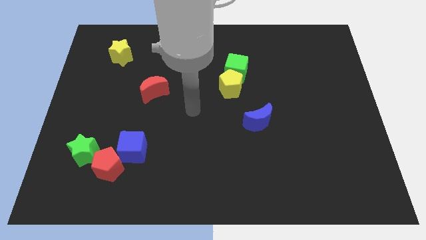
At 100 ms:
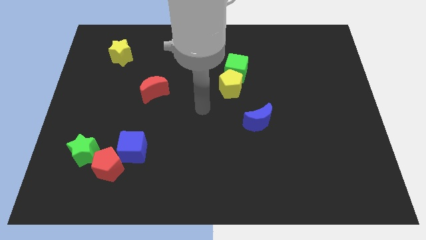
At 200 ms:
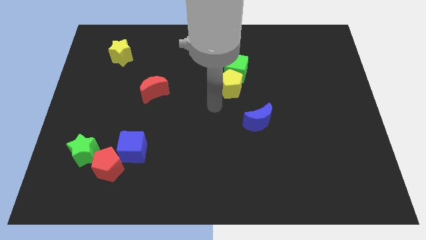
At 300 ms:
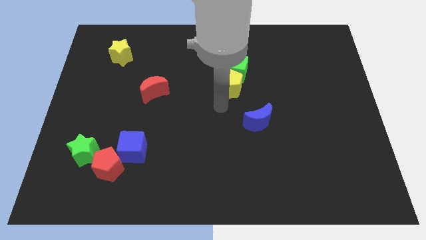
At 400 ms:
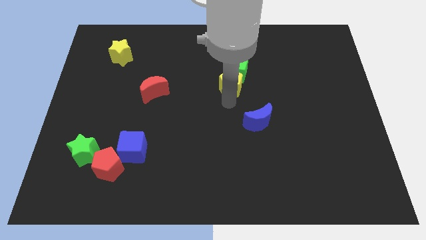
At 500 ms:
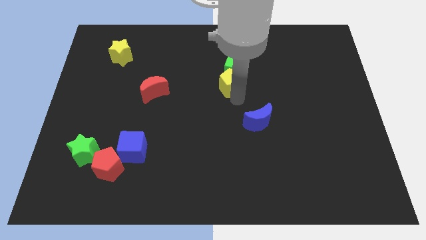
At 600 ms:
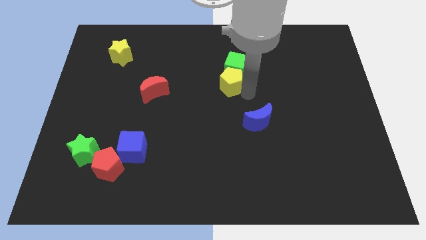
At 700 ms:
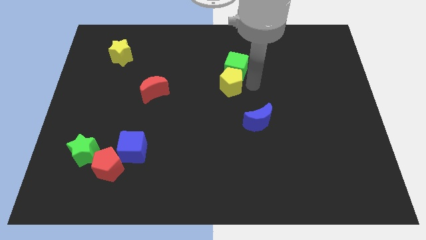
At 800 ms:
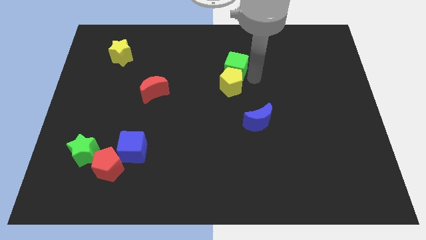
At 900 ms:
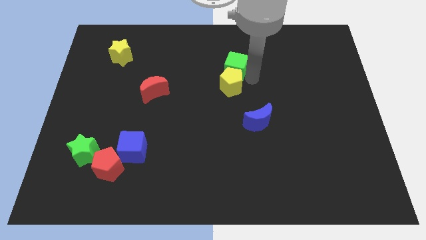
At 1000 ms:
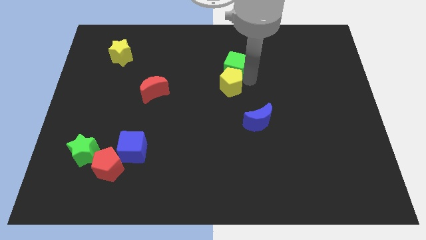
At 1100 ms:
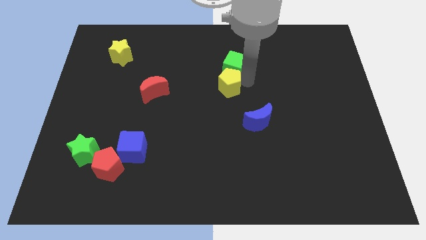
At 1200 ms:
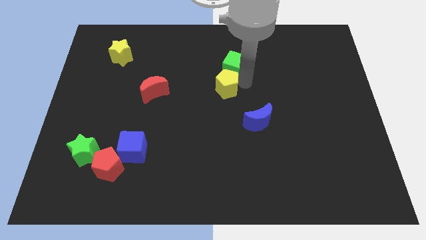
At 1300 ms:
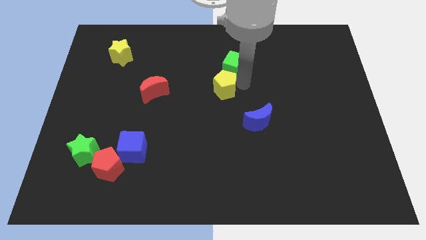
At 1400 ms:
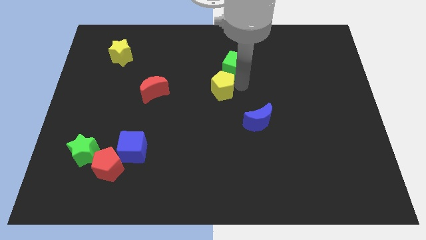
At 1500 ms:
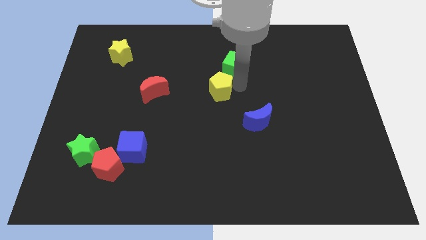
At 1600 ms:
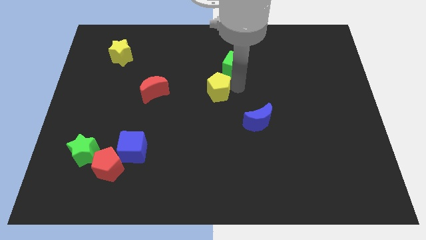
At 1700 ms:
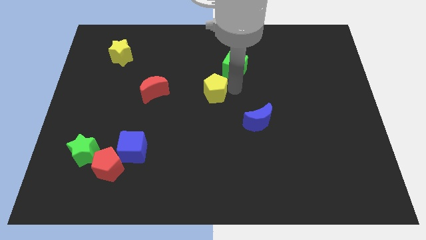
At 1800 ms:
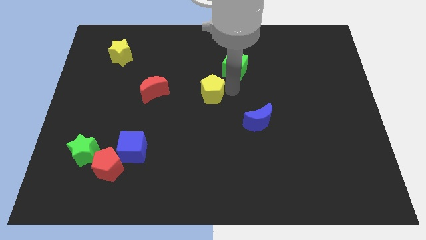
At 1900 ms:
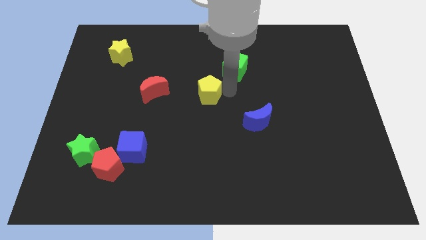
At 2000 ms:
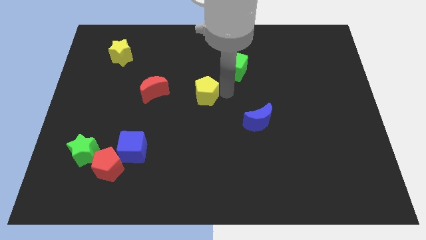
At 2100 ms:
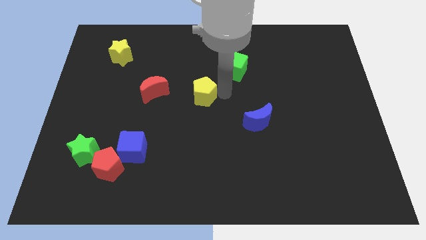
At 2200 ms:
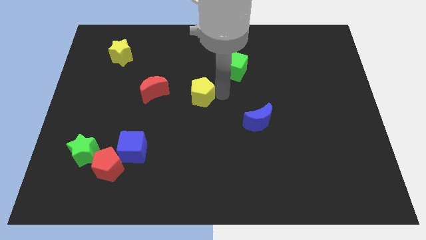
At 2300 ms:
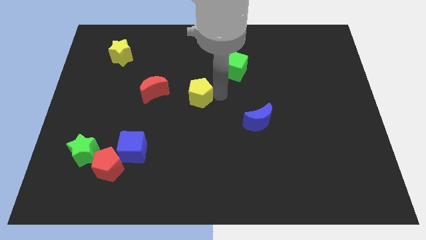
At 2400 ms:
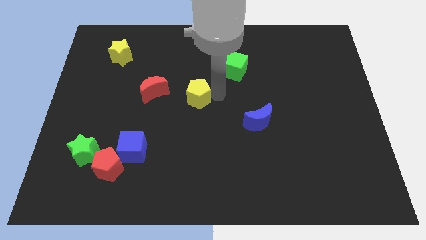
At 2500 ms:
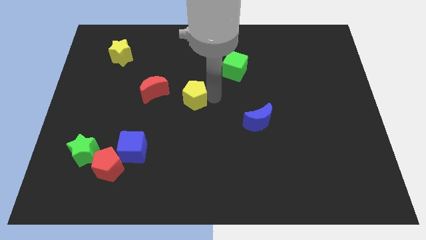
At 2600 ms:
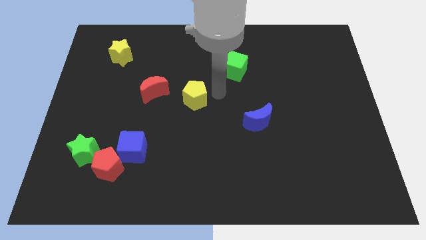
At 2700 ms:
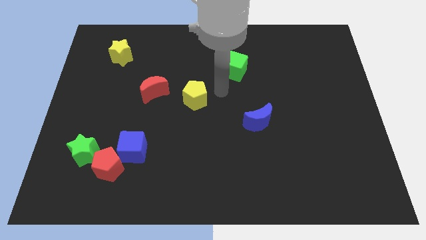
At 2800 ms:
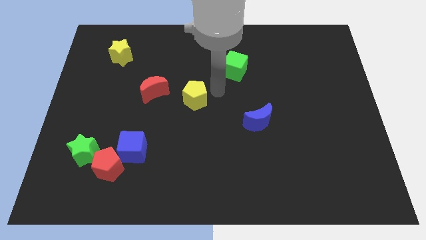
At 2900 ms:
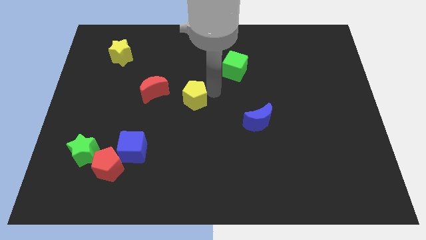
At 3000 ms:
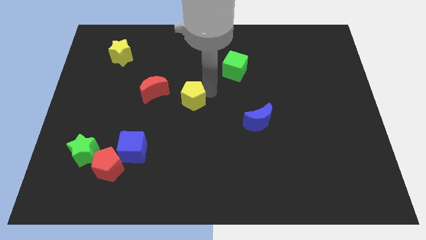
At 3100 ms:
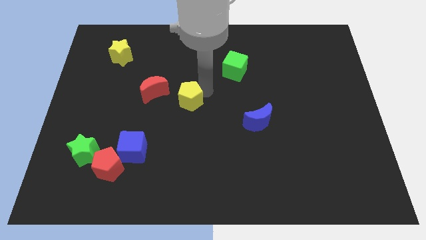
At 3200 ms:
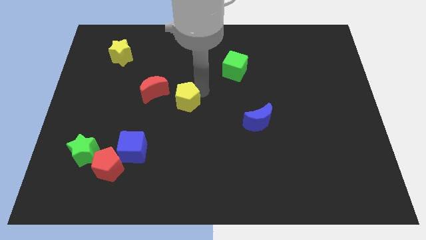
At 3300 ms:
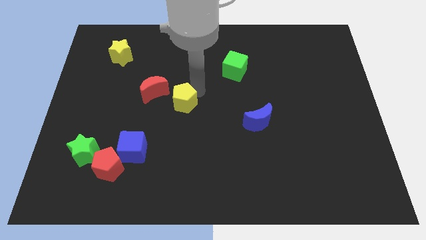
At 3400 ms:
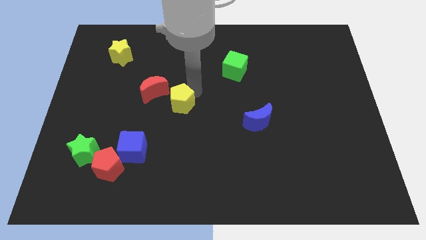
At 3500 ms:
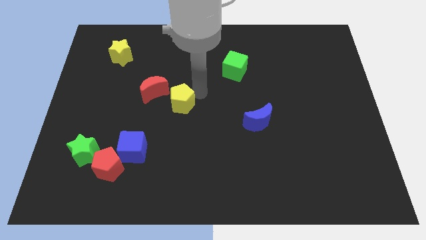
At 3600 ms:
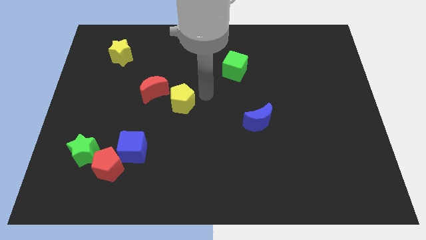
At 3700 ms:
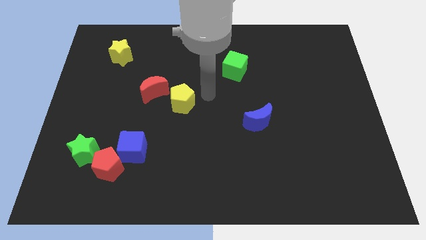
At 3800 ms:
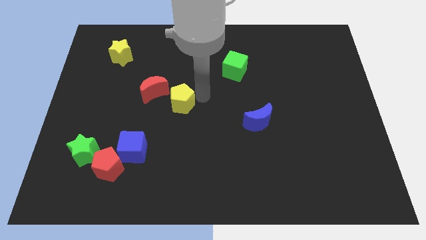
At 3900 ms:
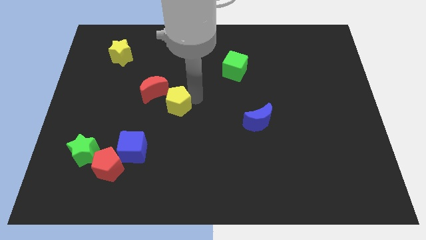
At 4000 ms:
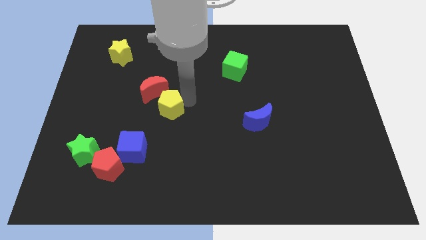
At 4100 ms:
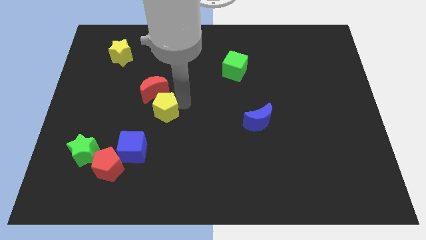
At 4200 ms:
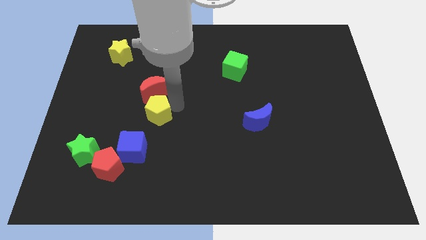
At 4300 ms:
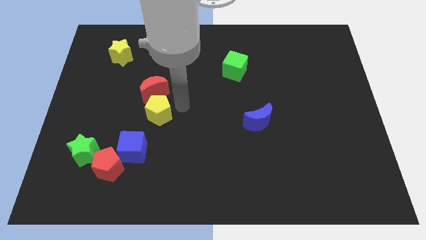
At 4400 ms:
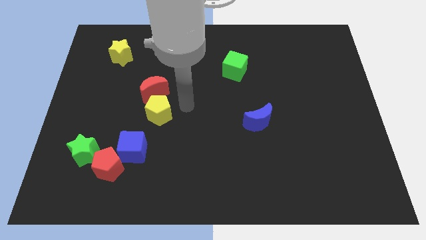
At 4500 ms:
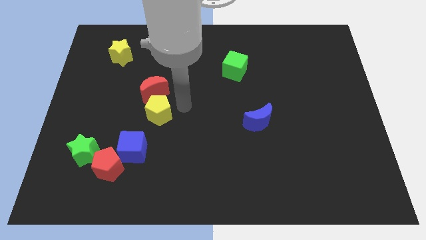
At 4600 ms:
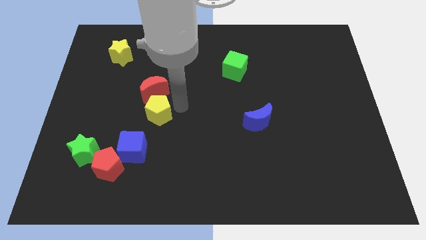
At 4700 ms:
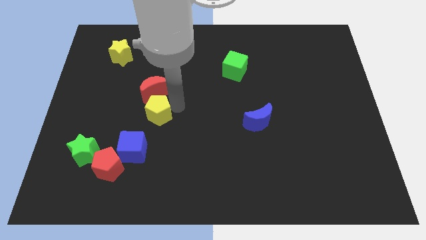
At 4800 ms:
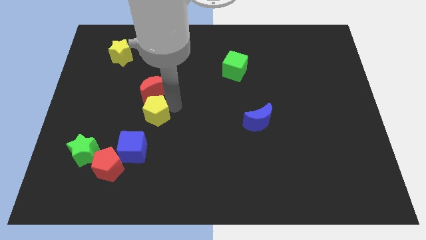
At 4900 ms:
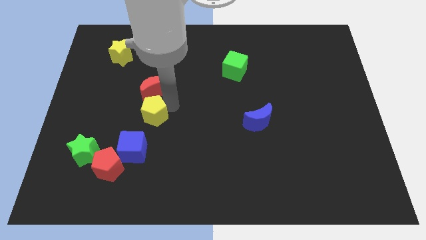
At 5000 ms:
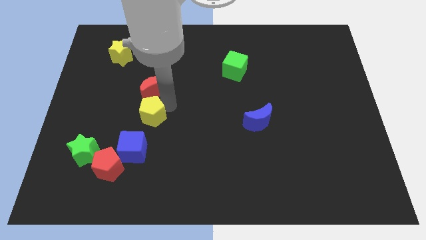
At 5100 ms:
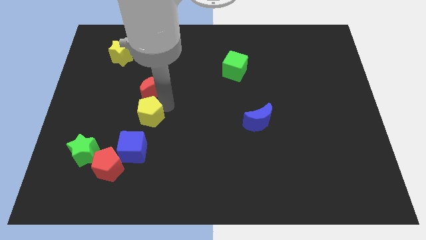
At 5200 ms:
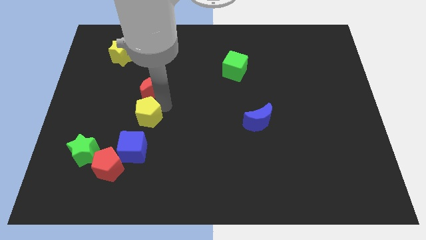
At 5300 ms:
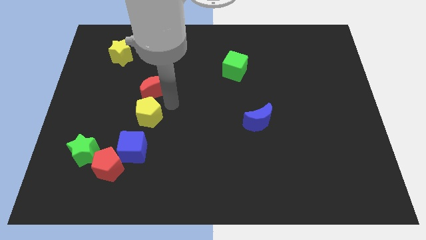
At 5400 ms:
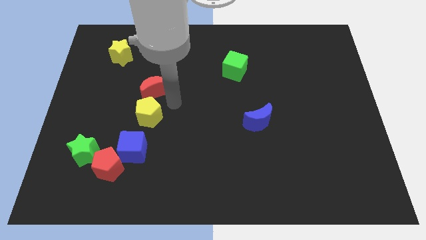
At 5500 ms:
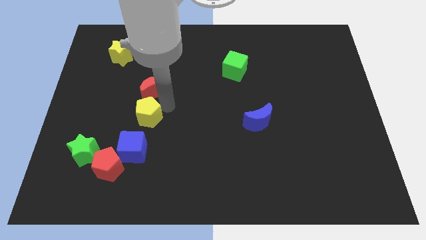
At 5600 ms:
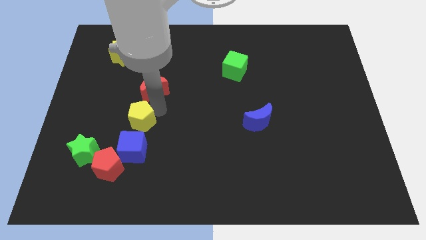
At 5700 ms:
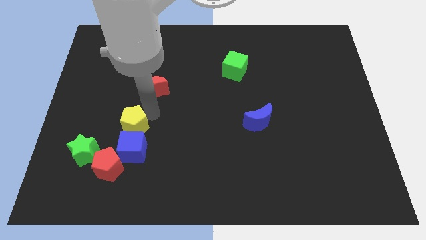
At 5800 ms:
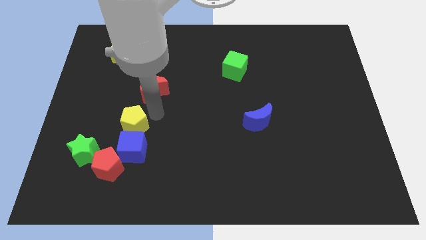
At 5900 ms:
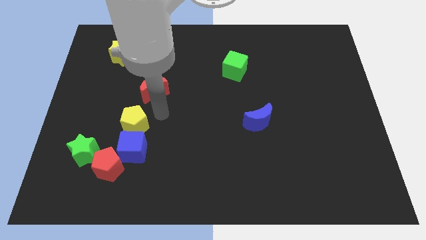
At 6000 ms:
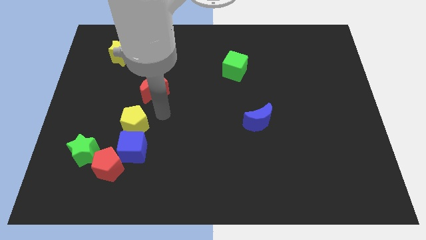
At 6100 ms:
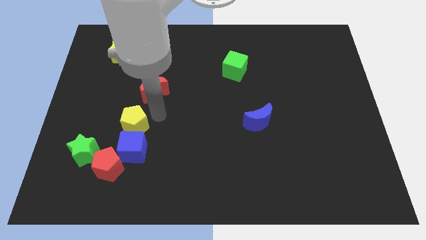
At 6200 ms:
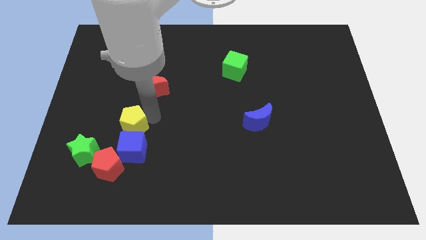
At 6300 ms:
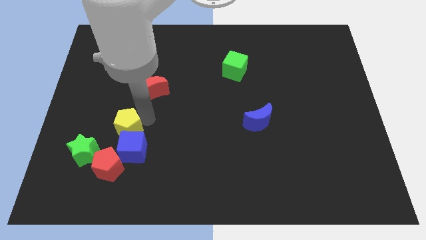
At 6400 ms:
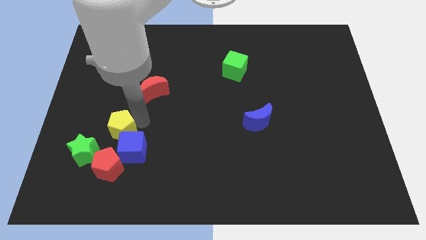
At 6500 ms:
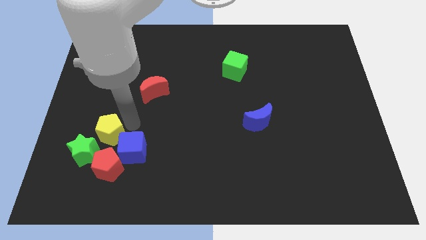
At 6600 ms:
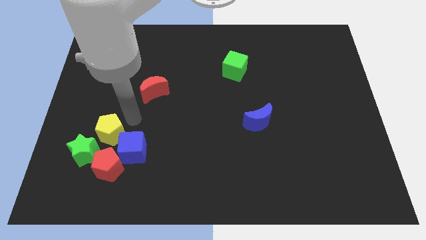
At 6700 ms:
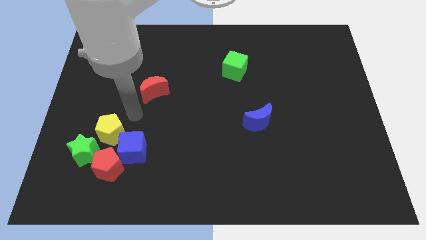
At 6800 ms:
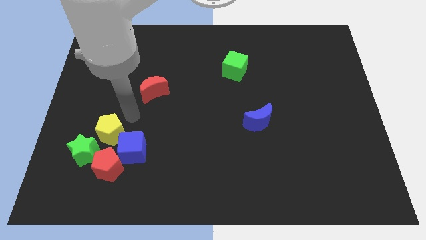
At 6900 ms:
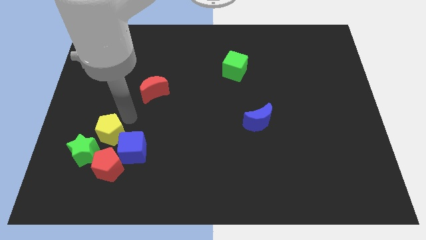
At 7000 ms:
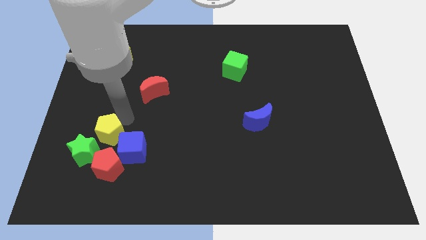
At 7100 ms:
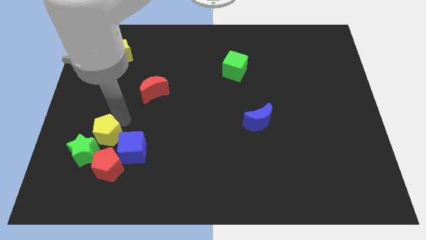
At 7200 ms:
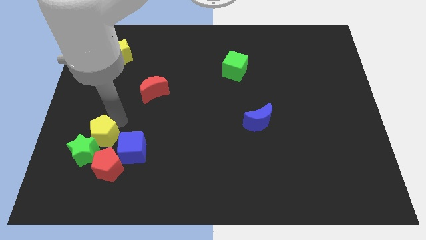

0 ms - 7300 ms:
move the yellow pentagon towards the green star

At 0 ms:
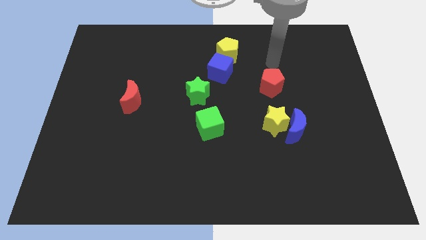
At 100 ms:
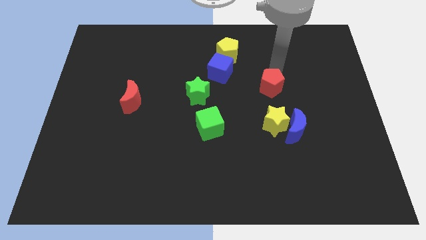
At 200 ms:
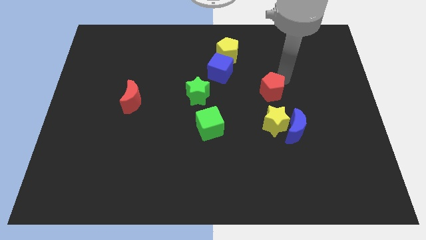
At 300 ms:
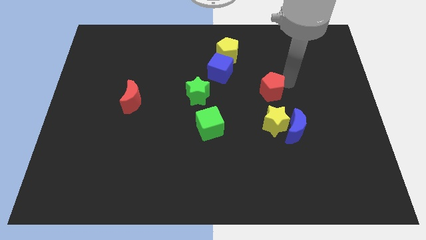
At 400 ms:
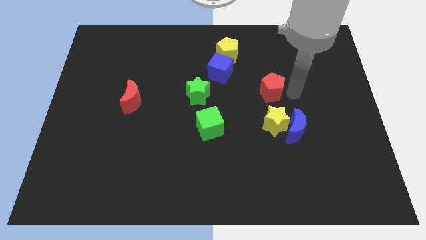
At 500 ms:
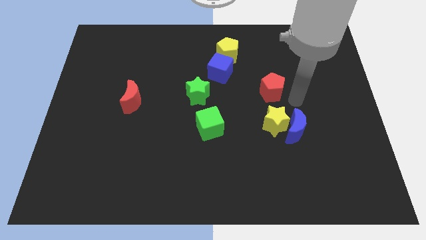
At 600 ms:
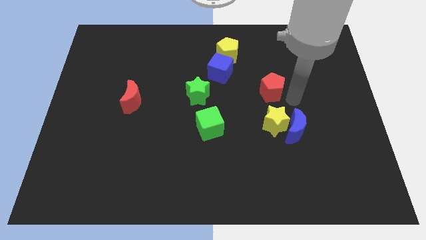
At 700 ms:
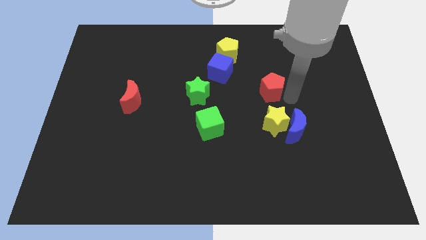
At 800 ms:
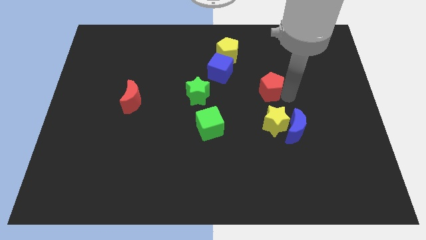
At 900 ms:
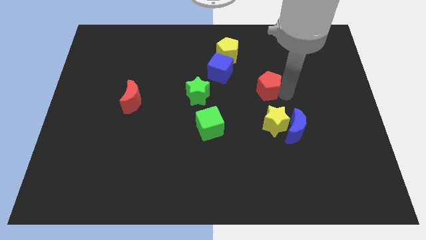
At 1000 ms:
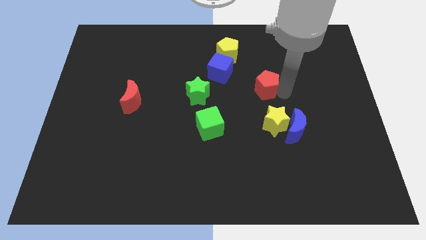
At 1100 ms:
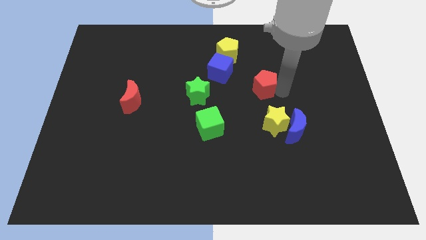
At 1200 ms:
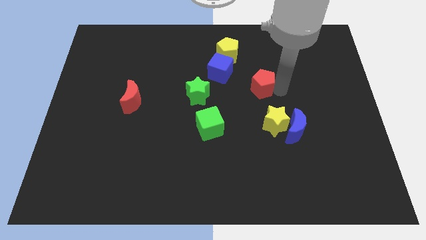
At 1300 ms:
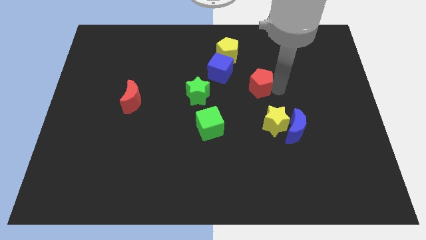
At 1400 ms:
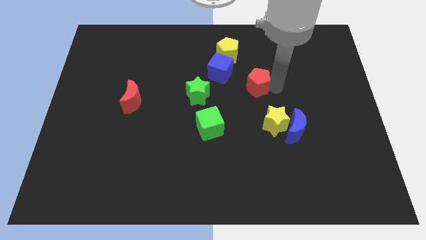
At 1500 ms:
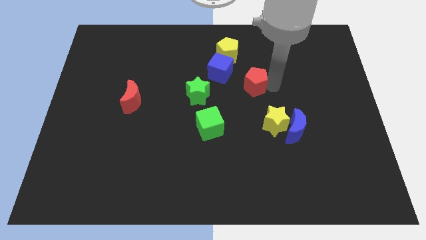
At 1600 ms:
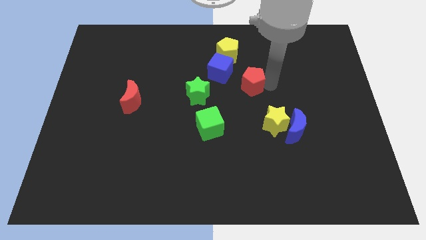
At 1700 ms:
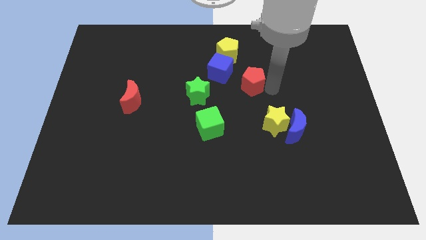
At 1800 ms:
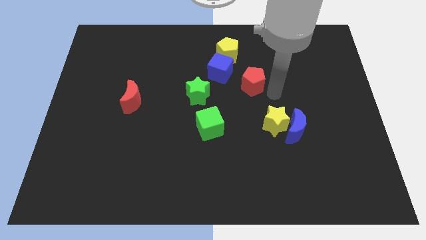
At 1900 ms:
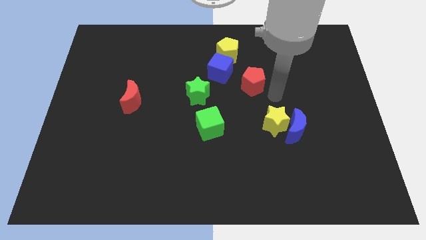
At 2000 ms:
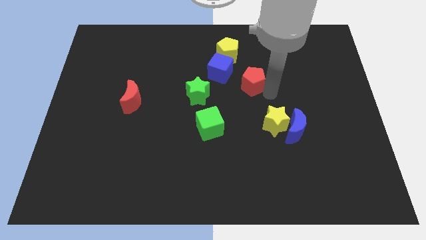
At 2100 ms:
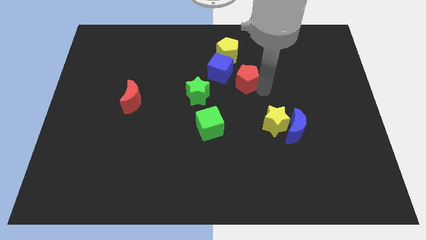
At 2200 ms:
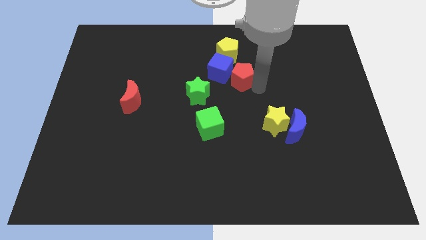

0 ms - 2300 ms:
move the red pentagon close to the blue cube
